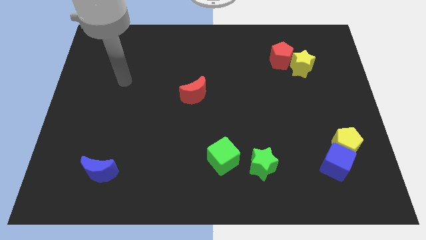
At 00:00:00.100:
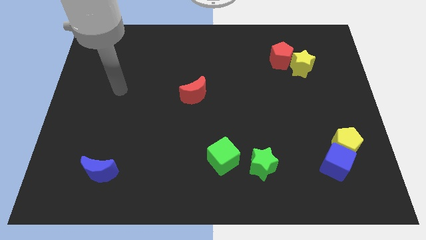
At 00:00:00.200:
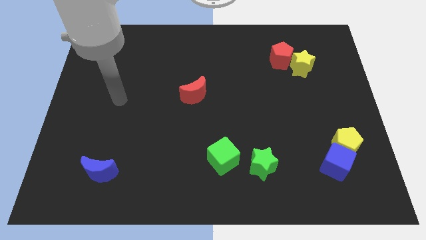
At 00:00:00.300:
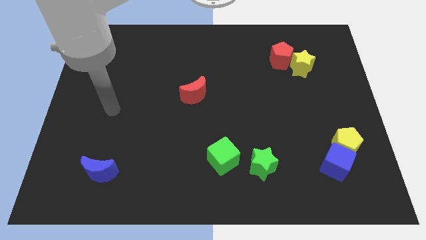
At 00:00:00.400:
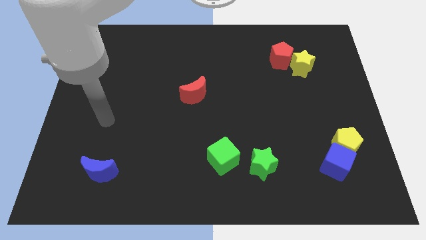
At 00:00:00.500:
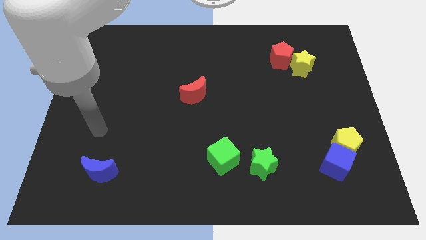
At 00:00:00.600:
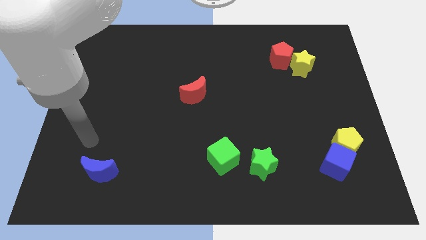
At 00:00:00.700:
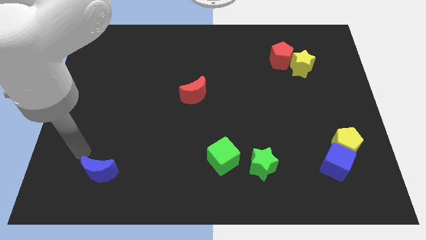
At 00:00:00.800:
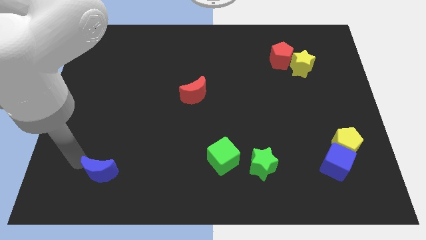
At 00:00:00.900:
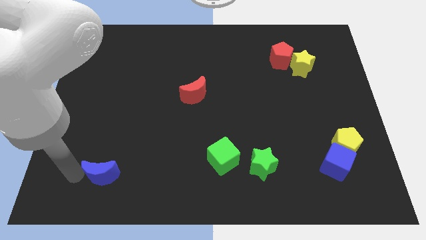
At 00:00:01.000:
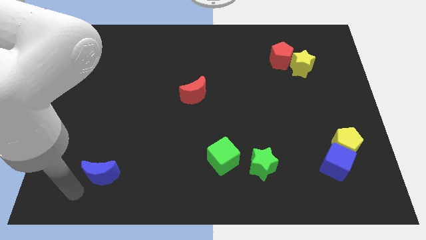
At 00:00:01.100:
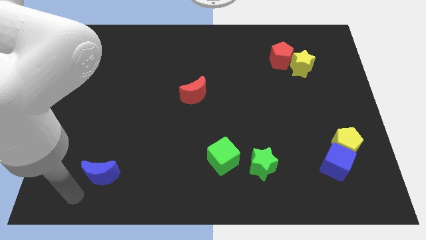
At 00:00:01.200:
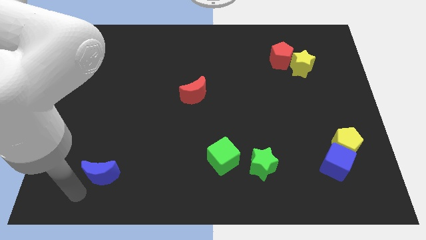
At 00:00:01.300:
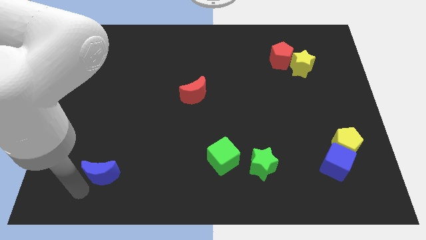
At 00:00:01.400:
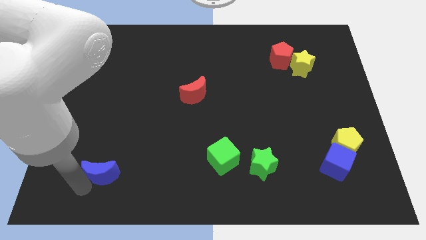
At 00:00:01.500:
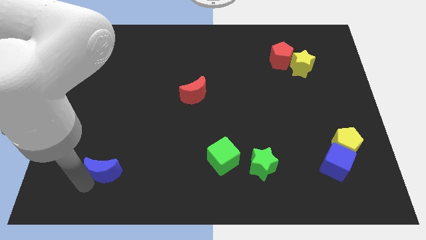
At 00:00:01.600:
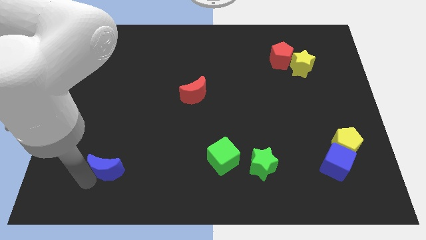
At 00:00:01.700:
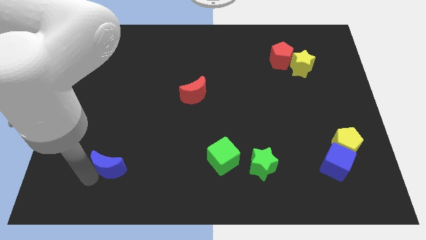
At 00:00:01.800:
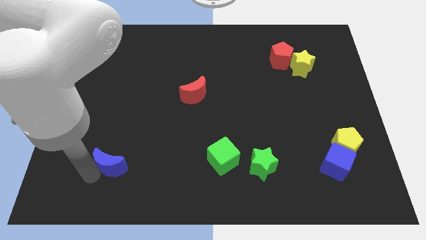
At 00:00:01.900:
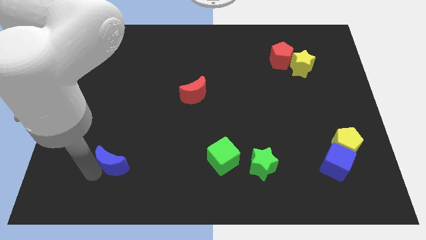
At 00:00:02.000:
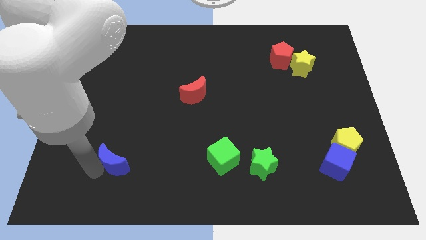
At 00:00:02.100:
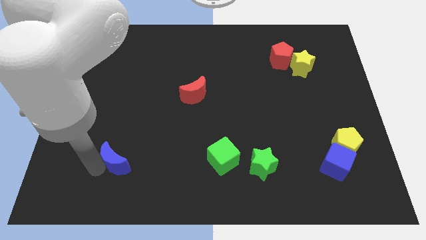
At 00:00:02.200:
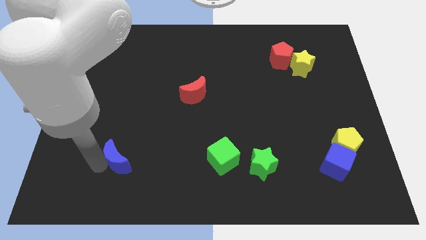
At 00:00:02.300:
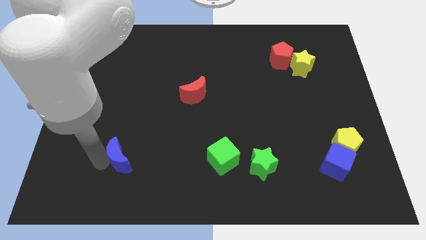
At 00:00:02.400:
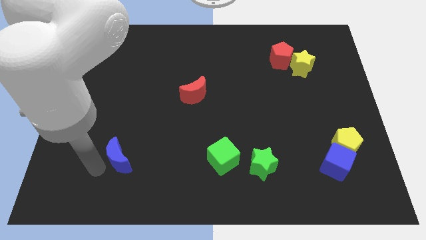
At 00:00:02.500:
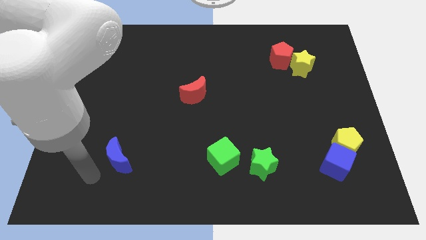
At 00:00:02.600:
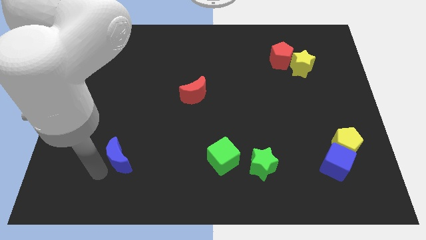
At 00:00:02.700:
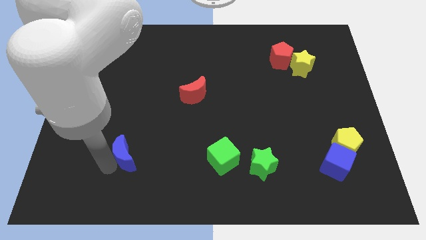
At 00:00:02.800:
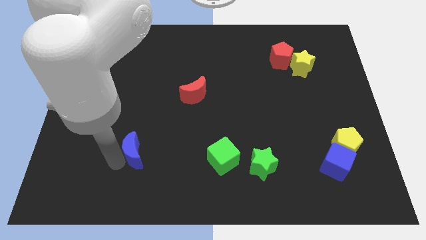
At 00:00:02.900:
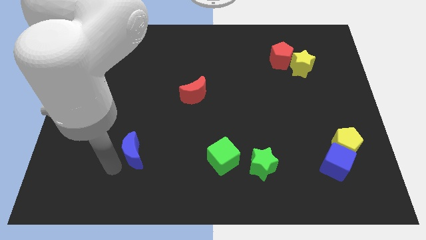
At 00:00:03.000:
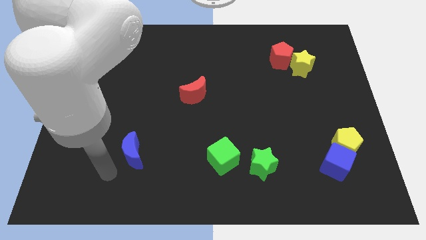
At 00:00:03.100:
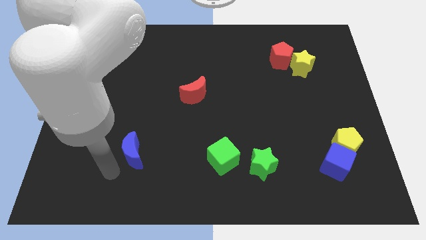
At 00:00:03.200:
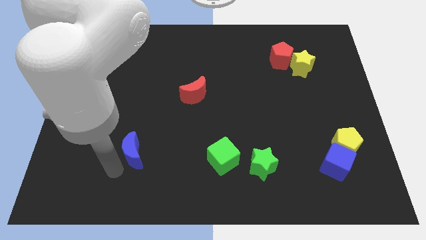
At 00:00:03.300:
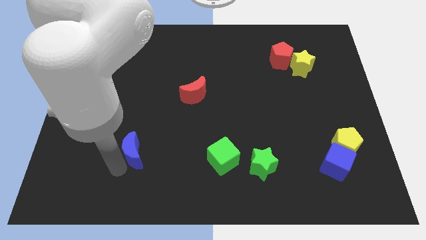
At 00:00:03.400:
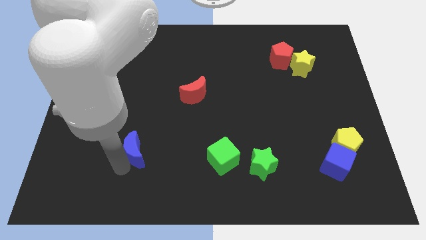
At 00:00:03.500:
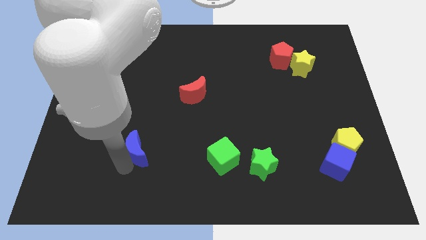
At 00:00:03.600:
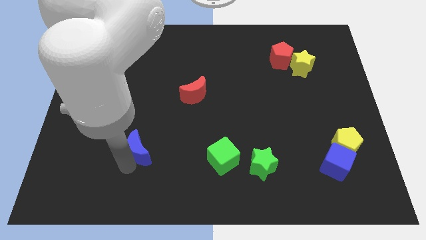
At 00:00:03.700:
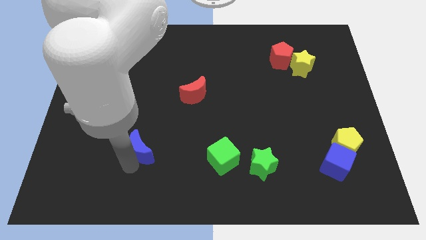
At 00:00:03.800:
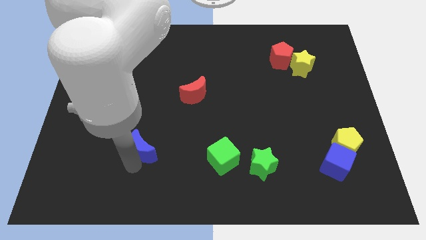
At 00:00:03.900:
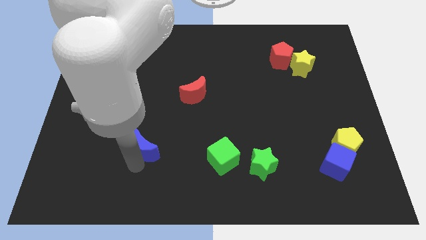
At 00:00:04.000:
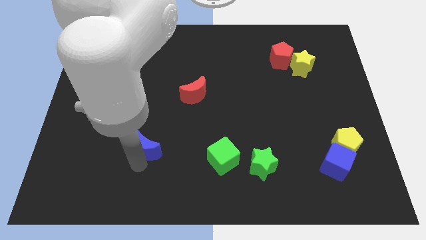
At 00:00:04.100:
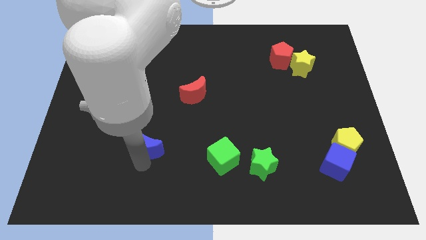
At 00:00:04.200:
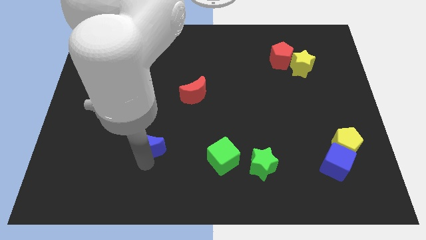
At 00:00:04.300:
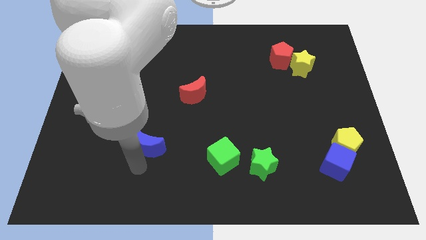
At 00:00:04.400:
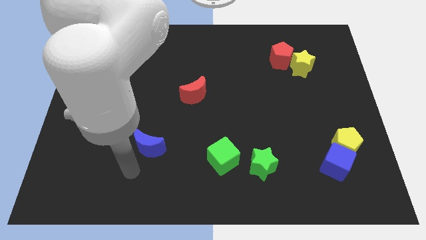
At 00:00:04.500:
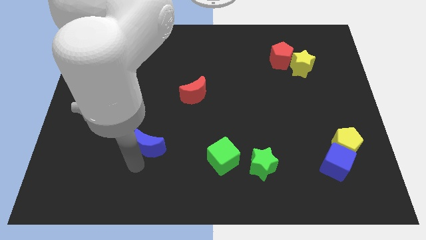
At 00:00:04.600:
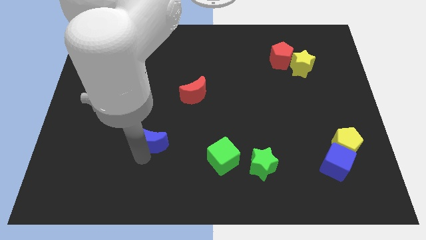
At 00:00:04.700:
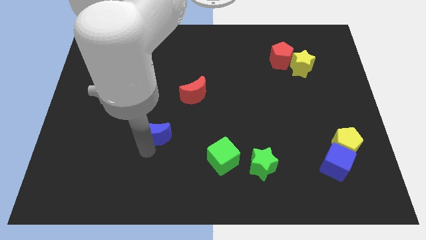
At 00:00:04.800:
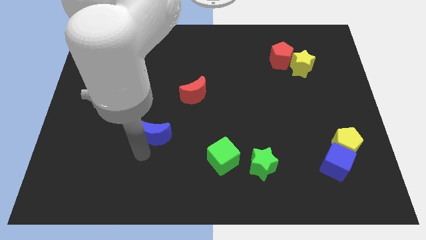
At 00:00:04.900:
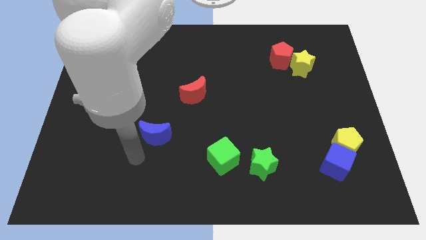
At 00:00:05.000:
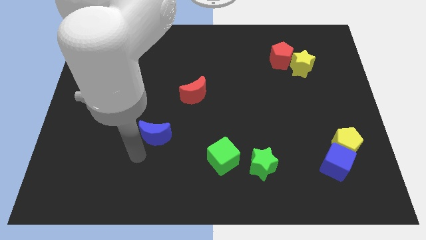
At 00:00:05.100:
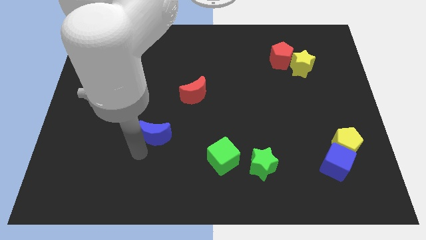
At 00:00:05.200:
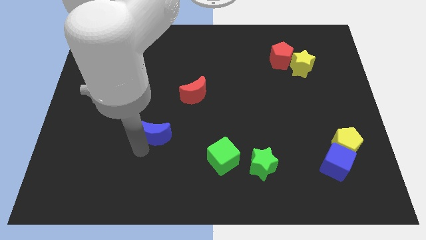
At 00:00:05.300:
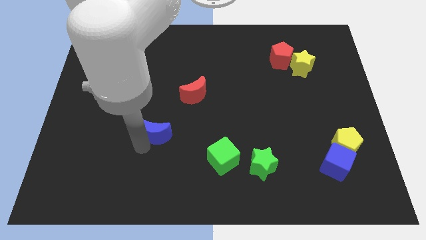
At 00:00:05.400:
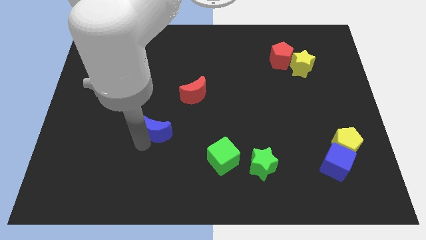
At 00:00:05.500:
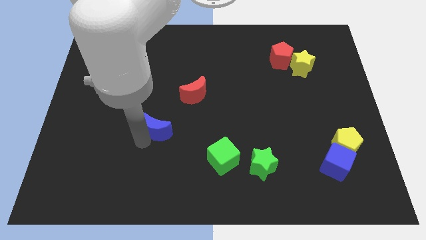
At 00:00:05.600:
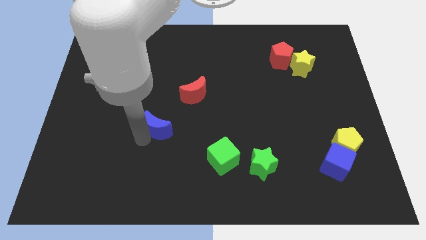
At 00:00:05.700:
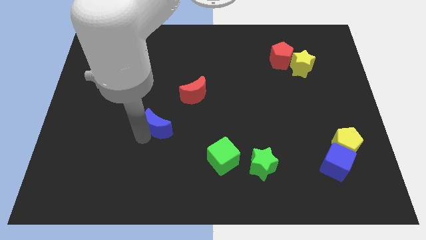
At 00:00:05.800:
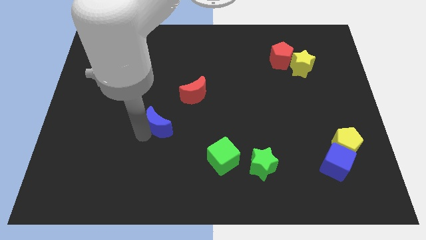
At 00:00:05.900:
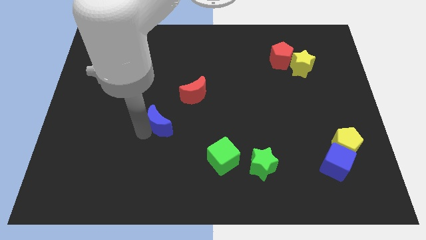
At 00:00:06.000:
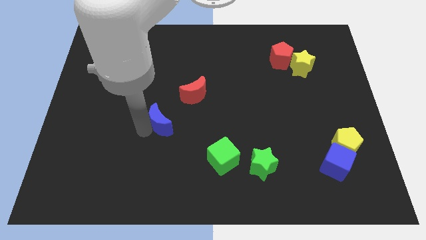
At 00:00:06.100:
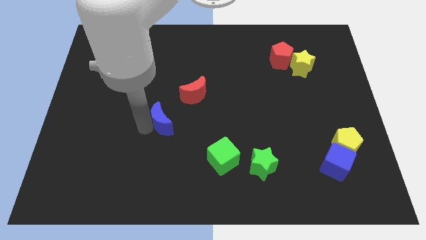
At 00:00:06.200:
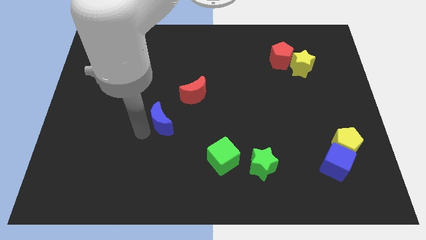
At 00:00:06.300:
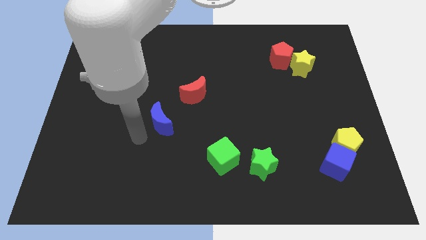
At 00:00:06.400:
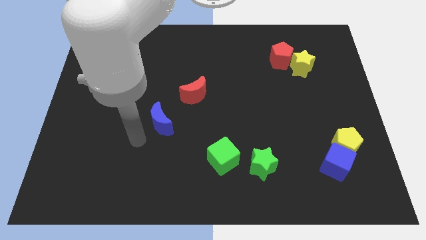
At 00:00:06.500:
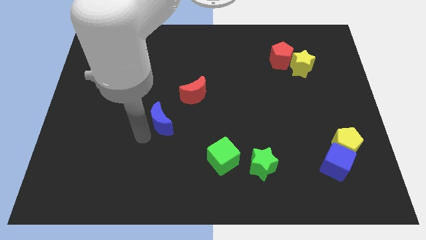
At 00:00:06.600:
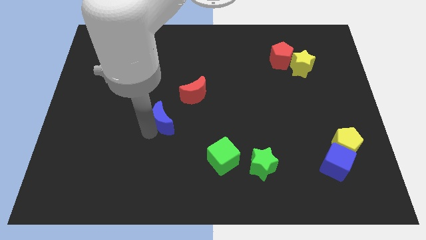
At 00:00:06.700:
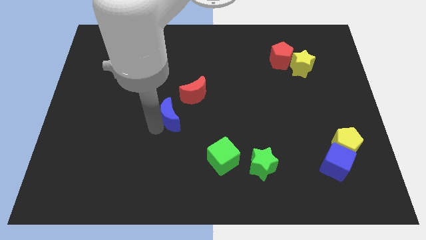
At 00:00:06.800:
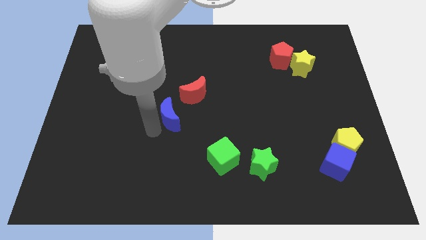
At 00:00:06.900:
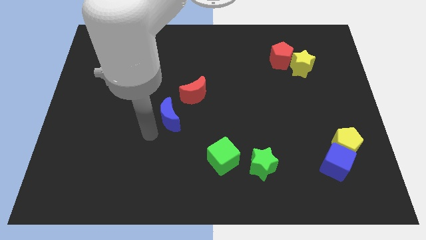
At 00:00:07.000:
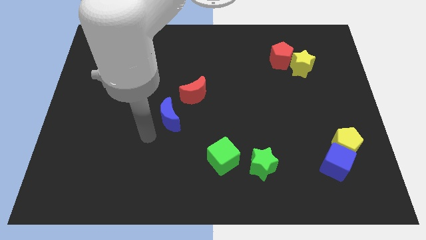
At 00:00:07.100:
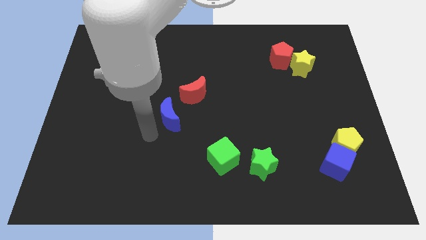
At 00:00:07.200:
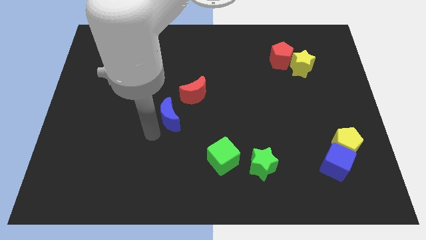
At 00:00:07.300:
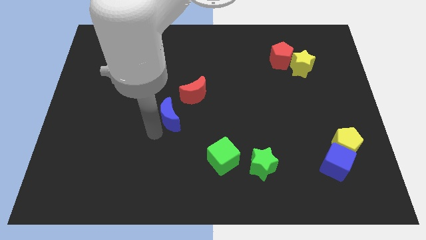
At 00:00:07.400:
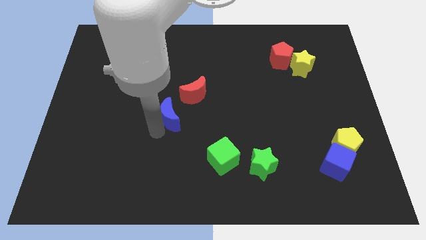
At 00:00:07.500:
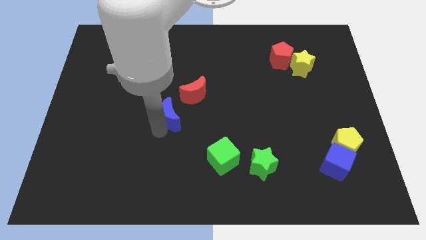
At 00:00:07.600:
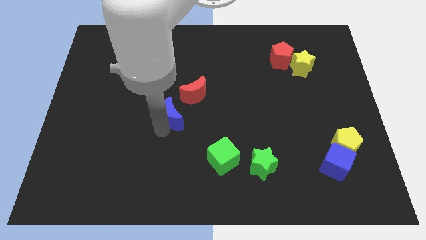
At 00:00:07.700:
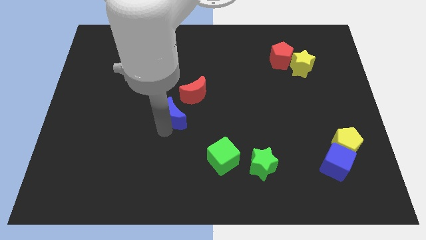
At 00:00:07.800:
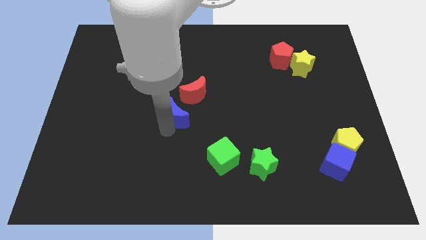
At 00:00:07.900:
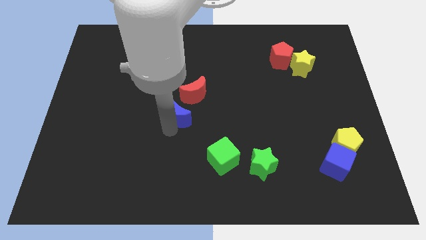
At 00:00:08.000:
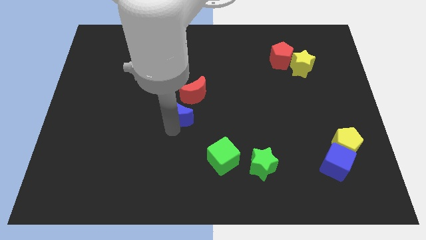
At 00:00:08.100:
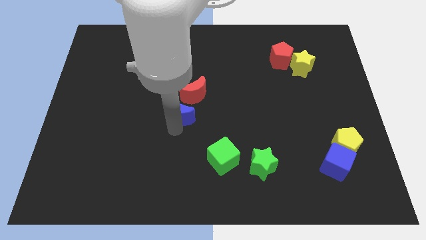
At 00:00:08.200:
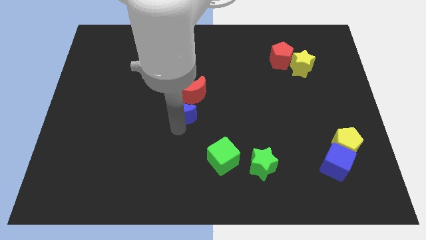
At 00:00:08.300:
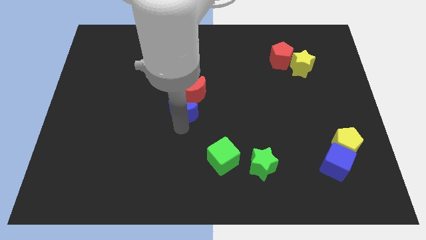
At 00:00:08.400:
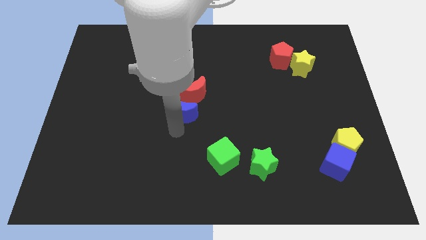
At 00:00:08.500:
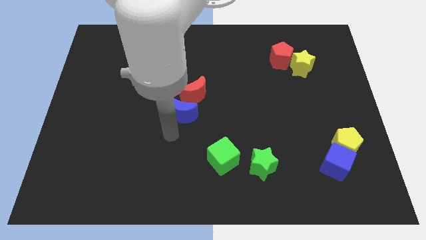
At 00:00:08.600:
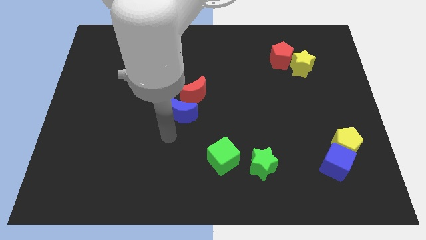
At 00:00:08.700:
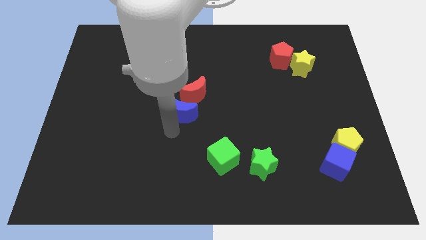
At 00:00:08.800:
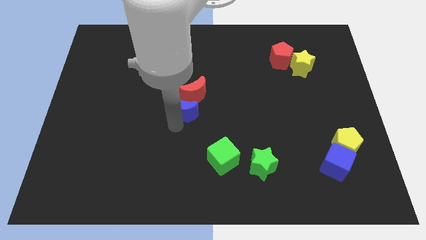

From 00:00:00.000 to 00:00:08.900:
put the blue moon to the red moon
